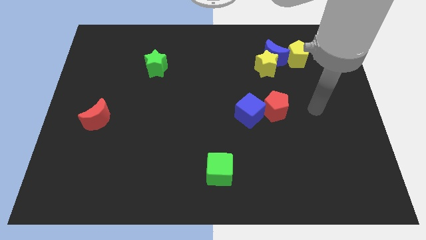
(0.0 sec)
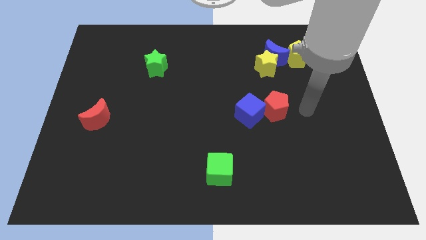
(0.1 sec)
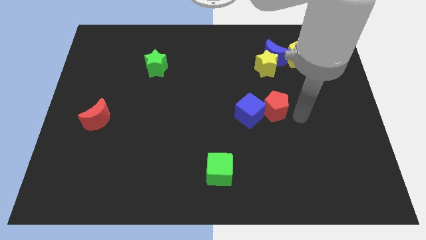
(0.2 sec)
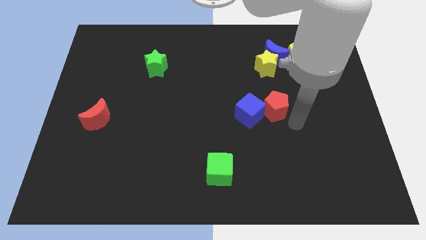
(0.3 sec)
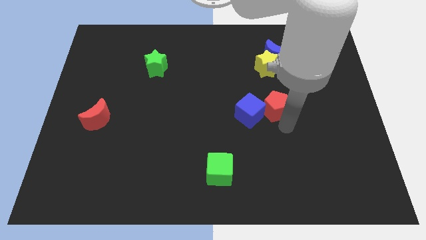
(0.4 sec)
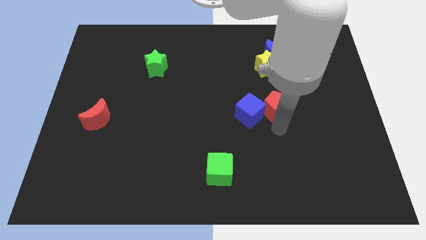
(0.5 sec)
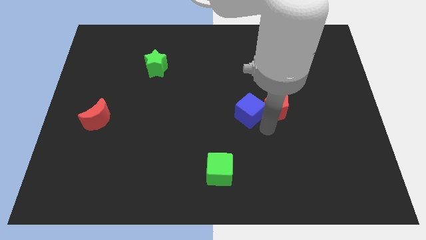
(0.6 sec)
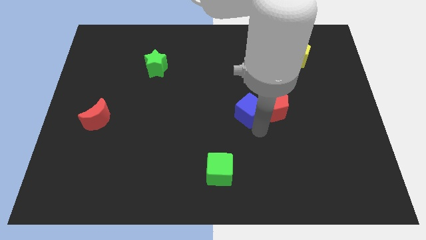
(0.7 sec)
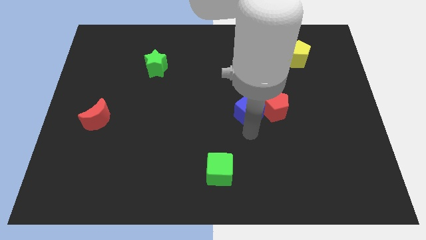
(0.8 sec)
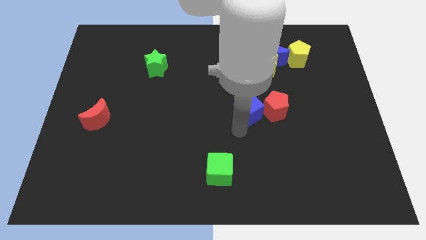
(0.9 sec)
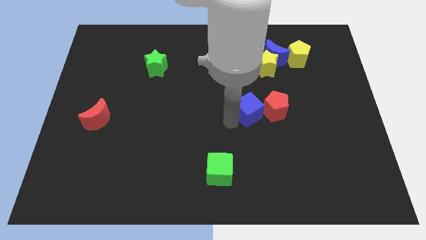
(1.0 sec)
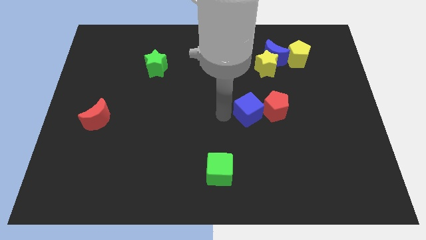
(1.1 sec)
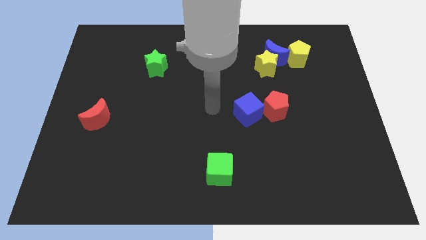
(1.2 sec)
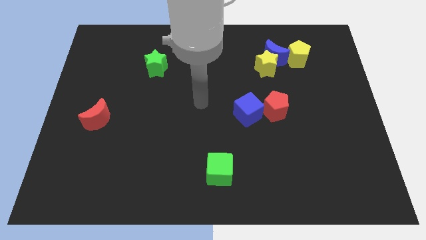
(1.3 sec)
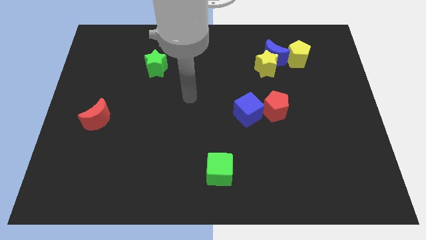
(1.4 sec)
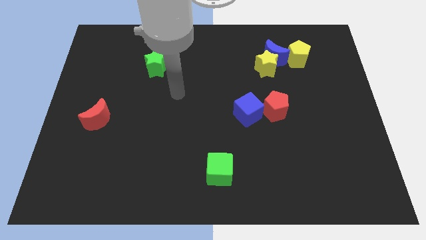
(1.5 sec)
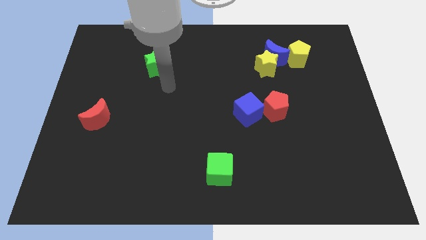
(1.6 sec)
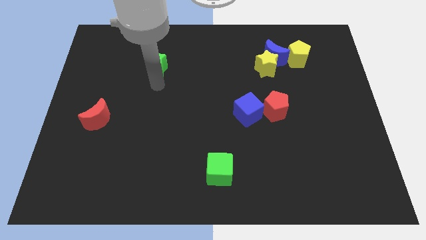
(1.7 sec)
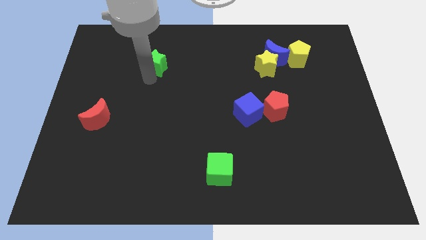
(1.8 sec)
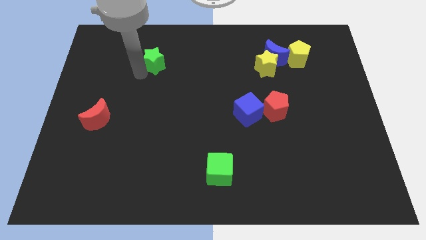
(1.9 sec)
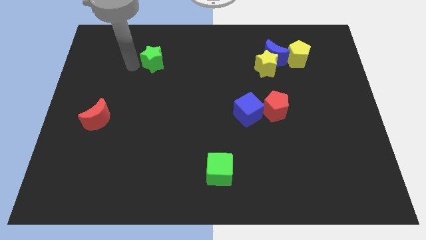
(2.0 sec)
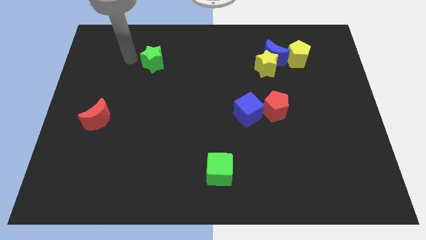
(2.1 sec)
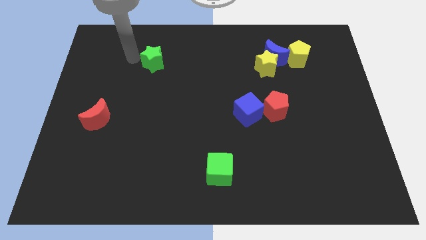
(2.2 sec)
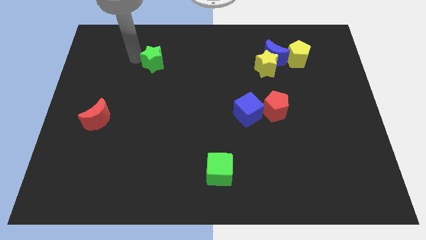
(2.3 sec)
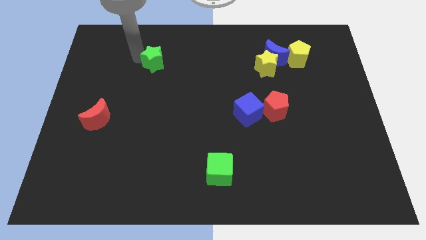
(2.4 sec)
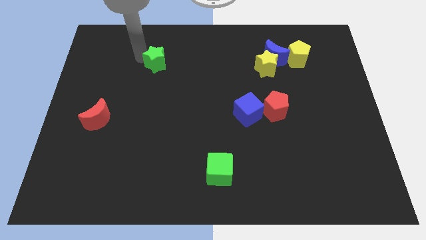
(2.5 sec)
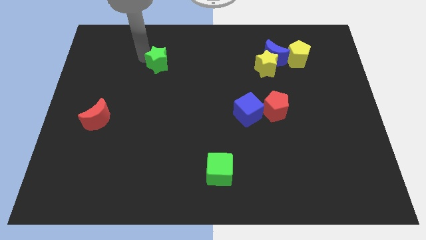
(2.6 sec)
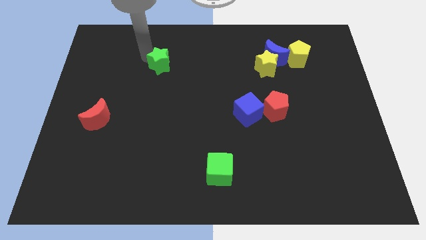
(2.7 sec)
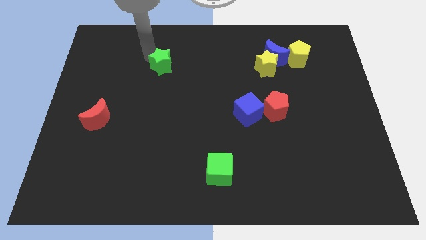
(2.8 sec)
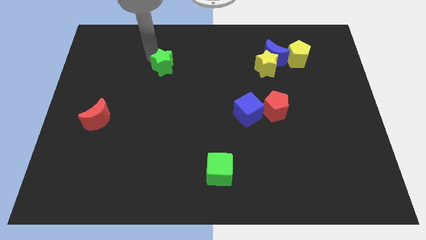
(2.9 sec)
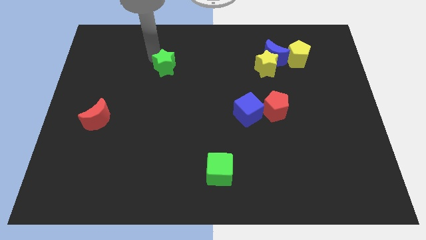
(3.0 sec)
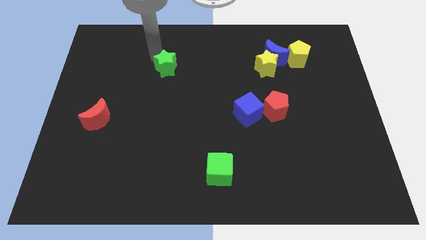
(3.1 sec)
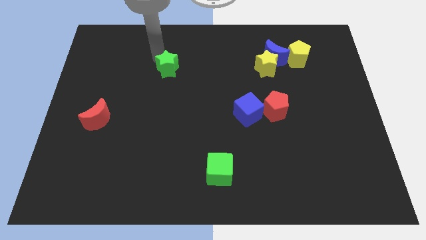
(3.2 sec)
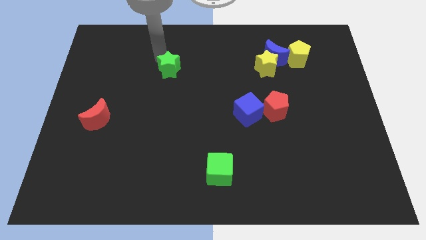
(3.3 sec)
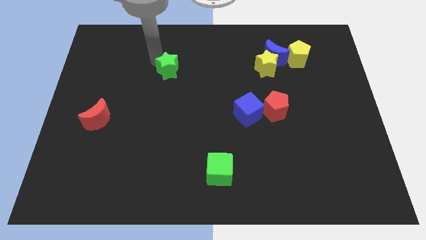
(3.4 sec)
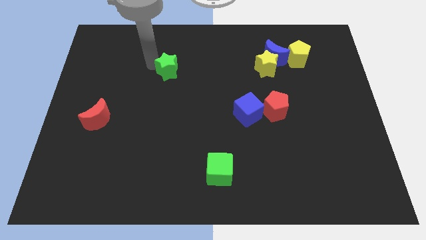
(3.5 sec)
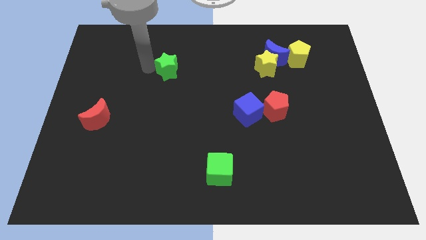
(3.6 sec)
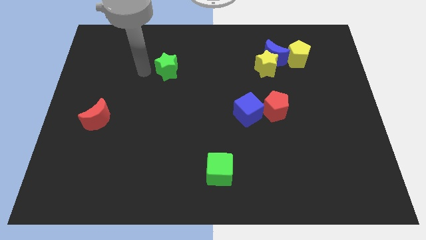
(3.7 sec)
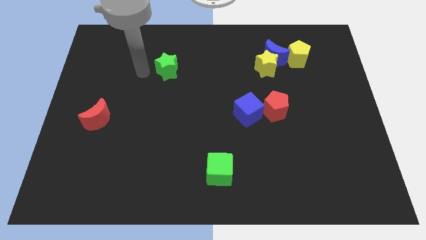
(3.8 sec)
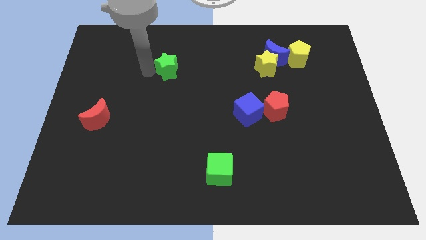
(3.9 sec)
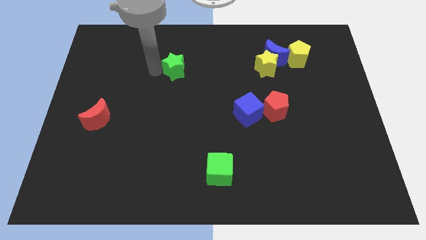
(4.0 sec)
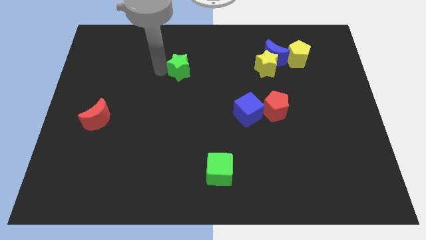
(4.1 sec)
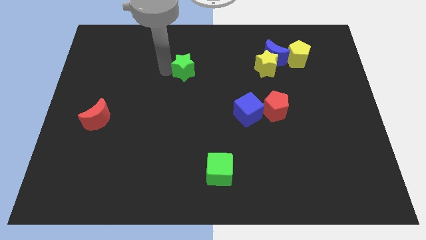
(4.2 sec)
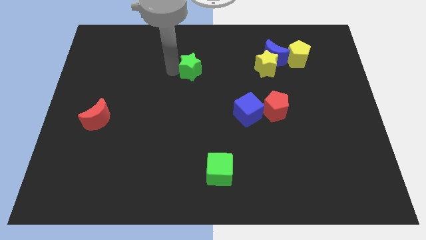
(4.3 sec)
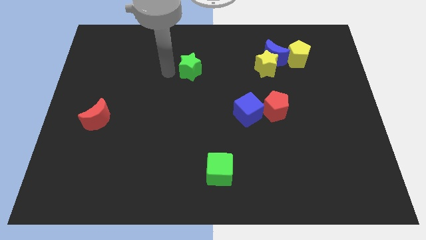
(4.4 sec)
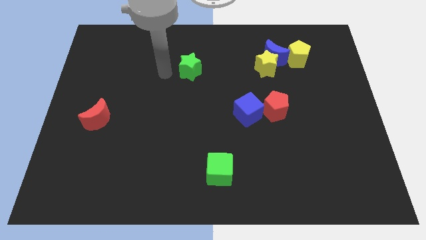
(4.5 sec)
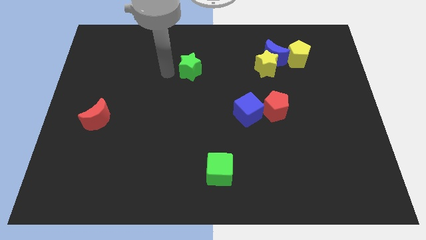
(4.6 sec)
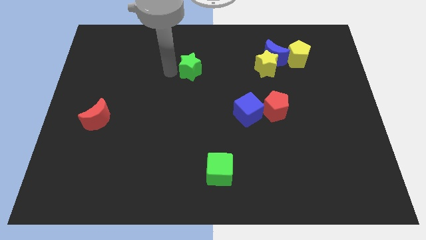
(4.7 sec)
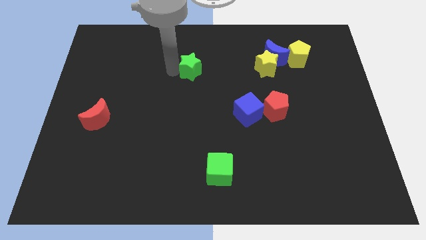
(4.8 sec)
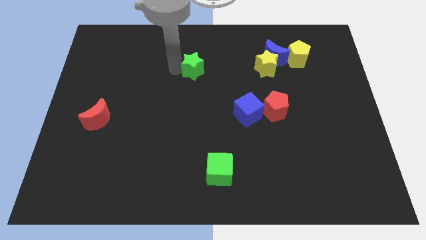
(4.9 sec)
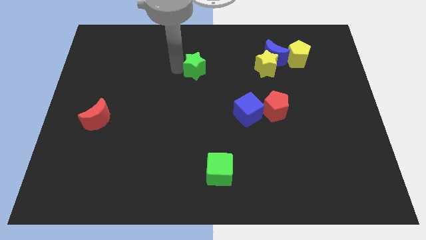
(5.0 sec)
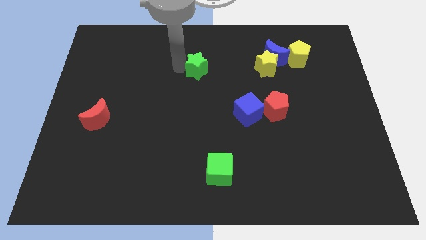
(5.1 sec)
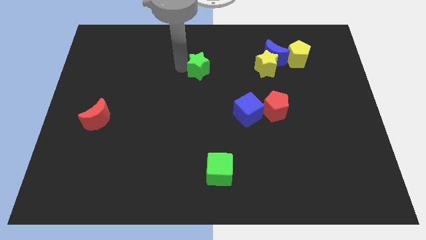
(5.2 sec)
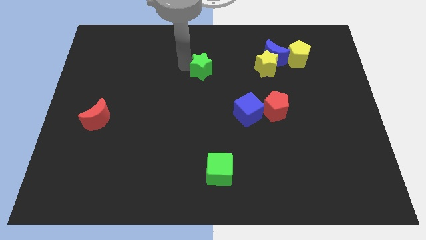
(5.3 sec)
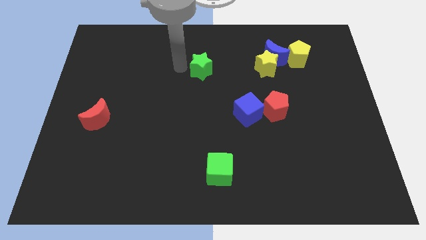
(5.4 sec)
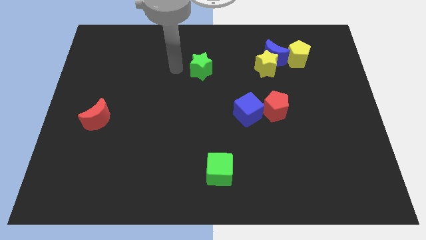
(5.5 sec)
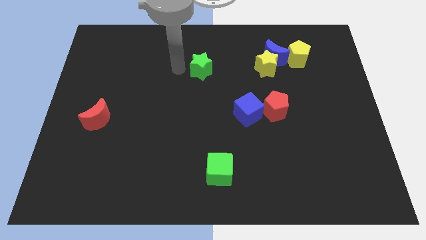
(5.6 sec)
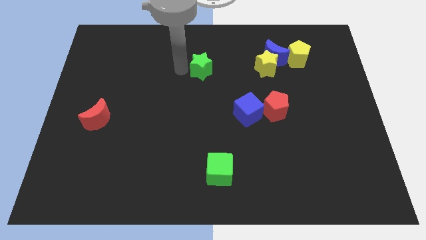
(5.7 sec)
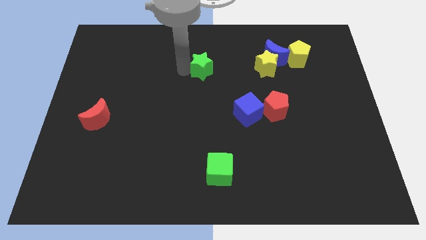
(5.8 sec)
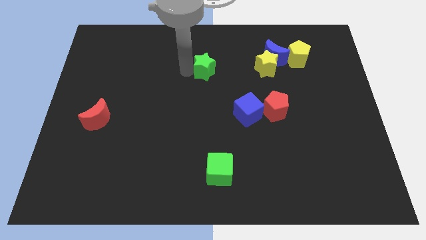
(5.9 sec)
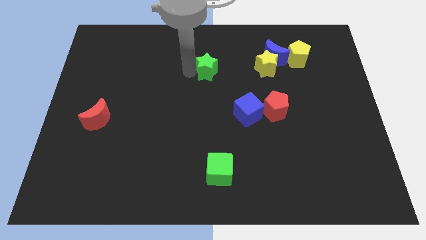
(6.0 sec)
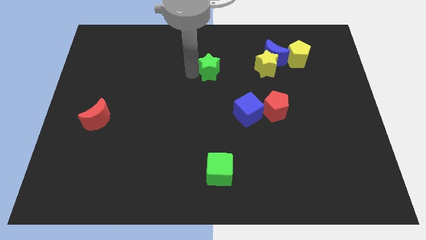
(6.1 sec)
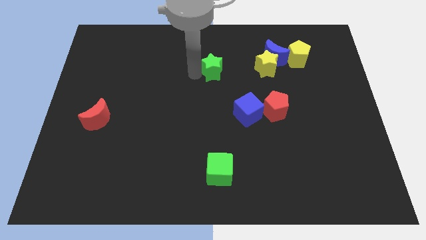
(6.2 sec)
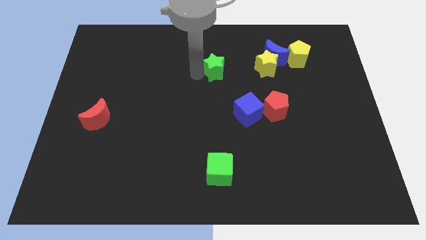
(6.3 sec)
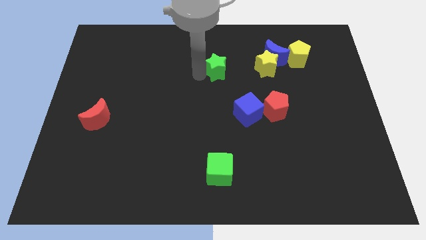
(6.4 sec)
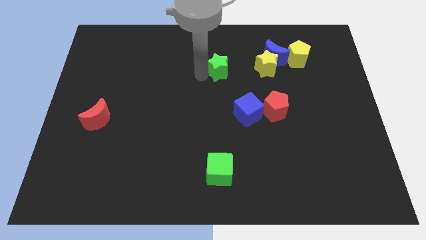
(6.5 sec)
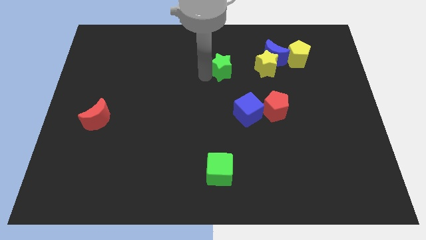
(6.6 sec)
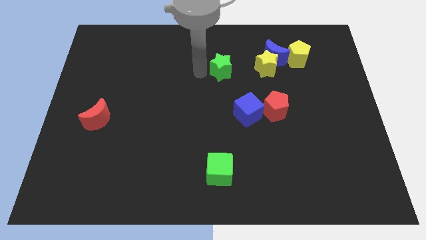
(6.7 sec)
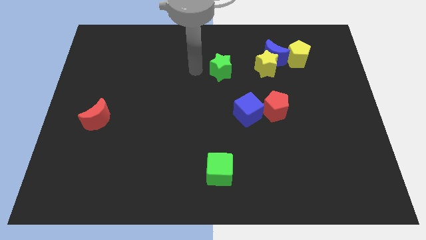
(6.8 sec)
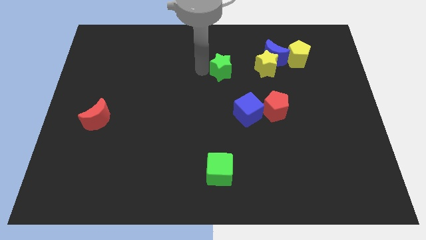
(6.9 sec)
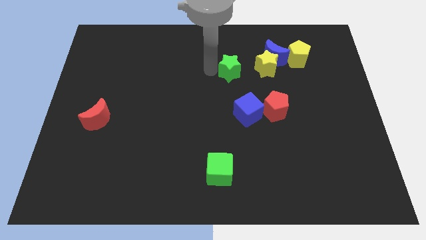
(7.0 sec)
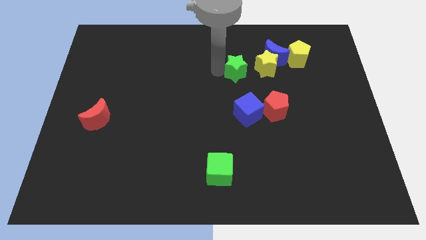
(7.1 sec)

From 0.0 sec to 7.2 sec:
move the green star to the bottom left side of the blue moon
